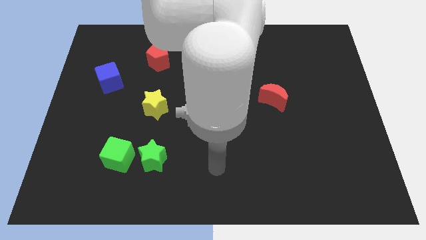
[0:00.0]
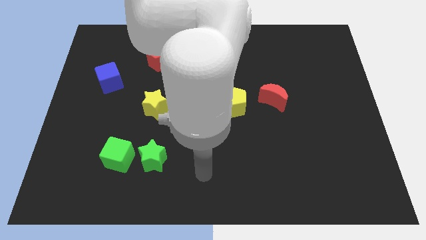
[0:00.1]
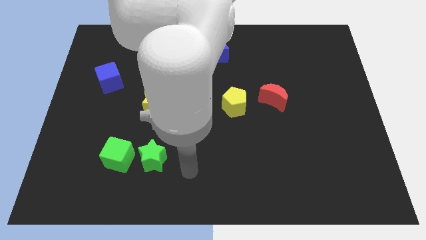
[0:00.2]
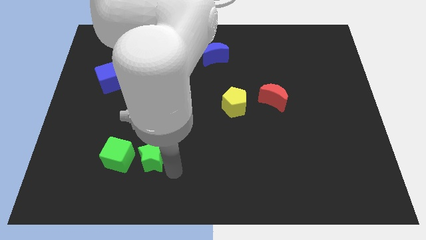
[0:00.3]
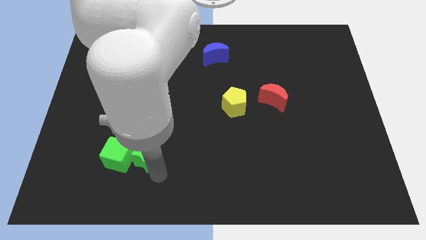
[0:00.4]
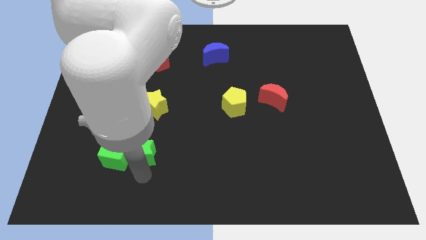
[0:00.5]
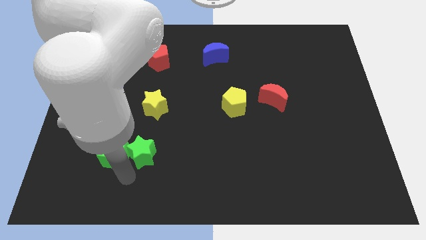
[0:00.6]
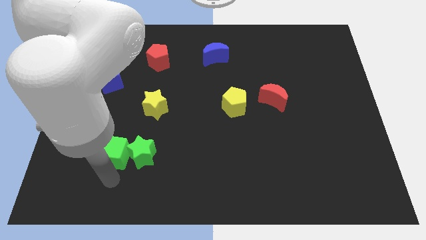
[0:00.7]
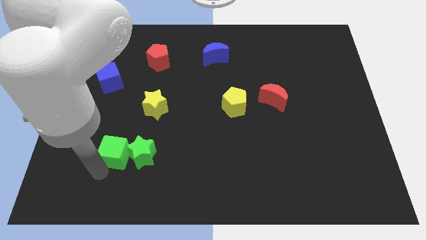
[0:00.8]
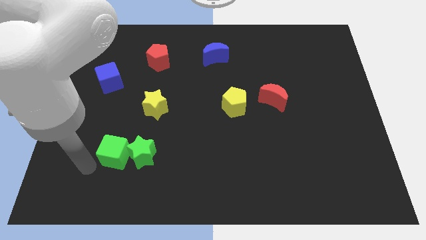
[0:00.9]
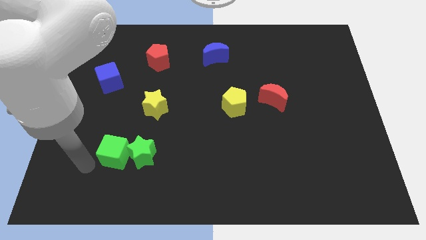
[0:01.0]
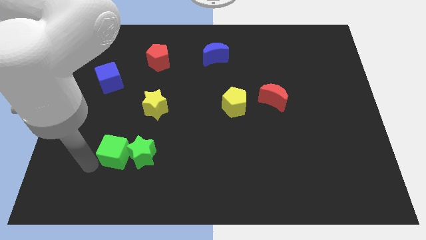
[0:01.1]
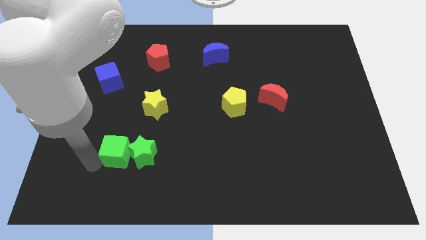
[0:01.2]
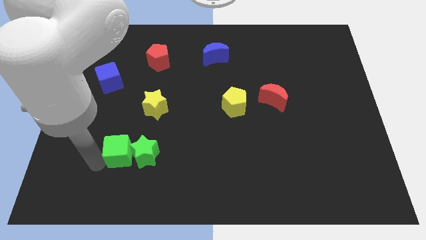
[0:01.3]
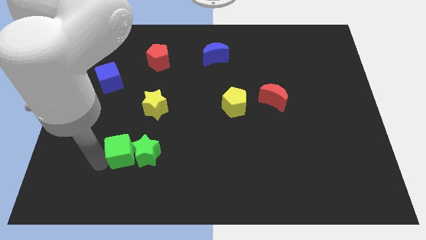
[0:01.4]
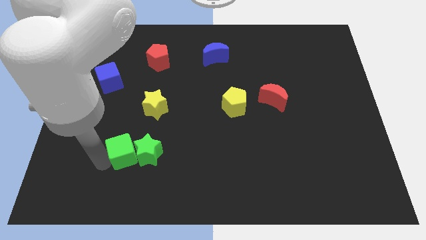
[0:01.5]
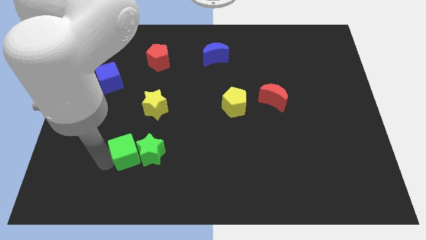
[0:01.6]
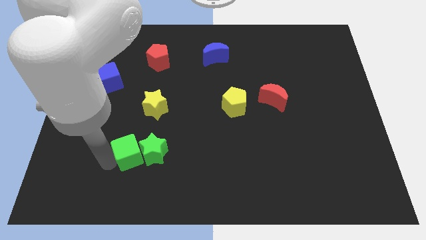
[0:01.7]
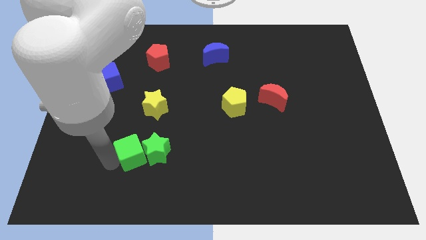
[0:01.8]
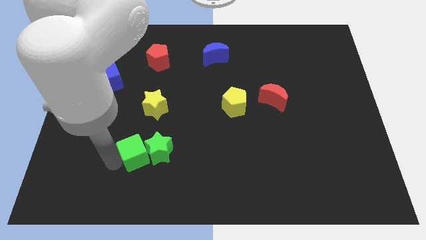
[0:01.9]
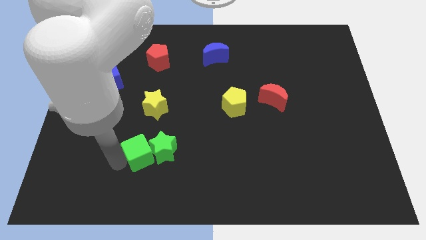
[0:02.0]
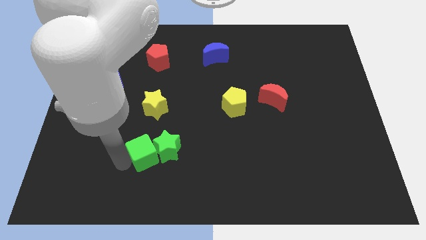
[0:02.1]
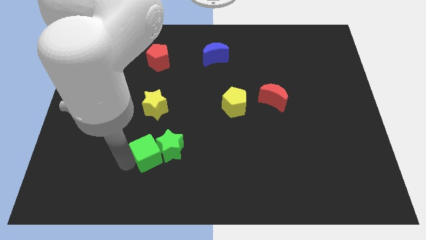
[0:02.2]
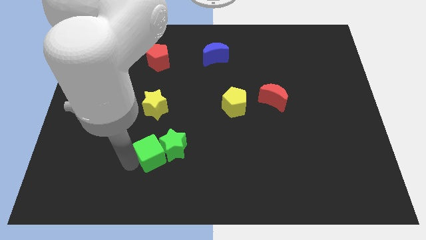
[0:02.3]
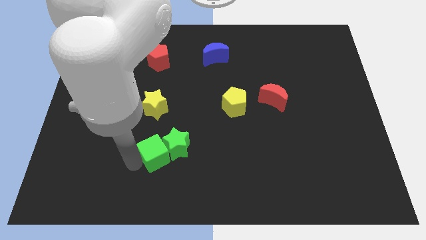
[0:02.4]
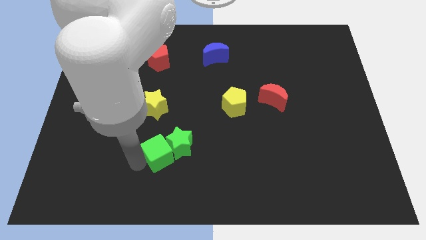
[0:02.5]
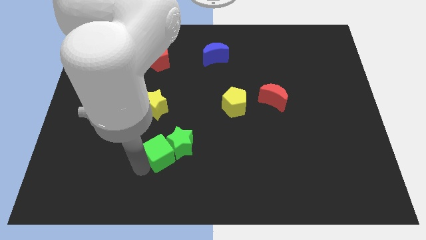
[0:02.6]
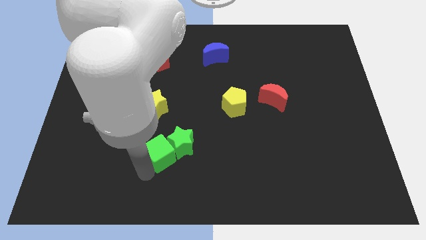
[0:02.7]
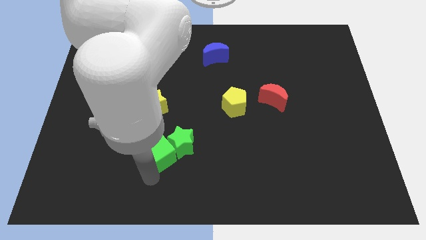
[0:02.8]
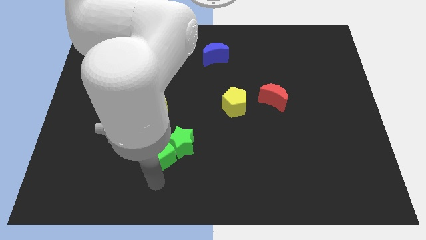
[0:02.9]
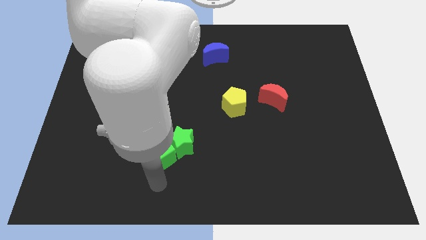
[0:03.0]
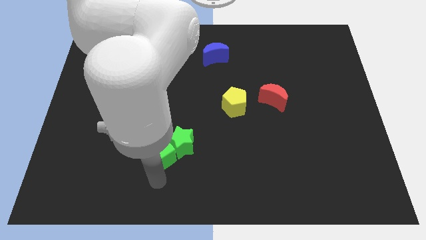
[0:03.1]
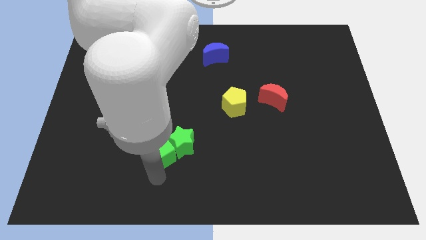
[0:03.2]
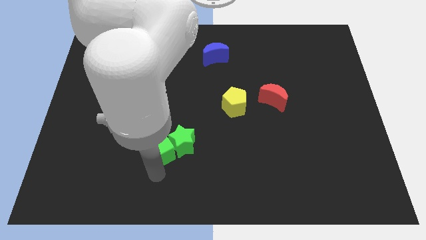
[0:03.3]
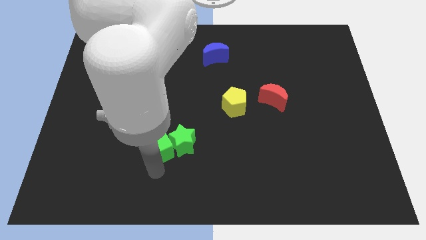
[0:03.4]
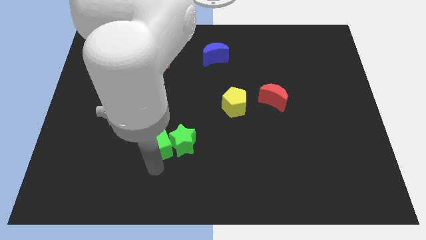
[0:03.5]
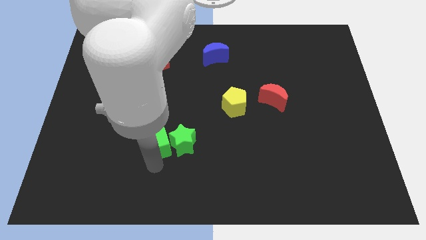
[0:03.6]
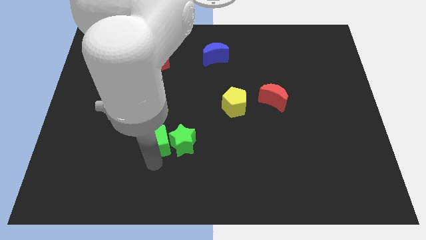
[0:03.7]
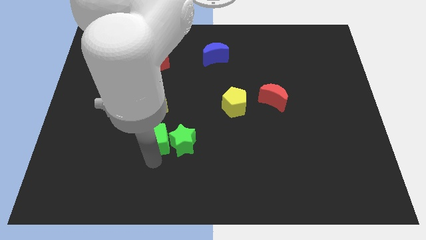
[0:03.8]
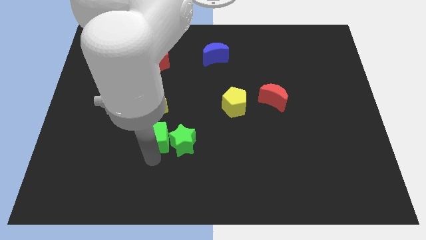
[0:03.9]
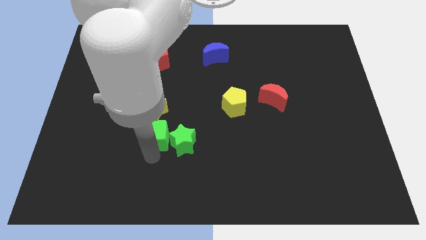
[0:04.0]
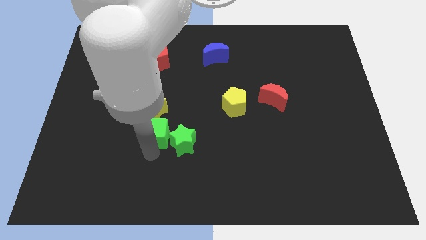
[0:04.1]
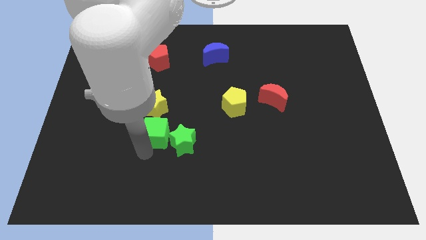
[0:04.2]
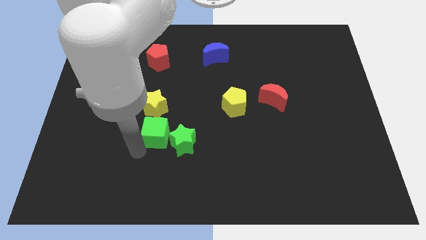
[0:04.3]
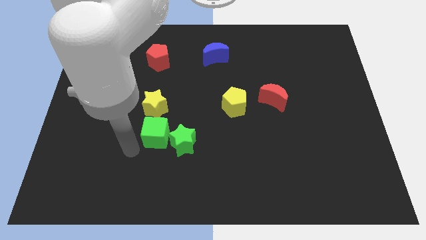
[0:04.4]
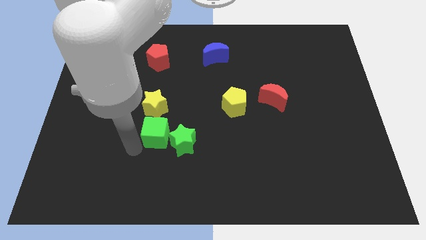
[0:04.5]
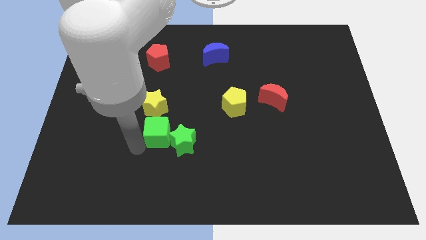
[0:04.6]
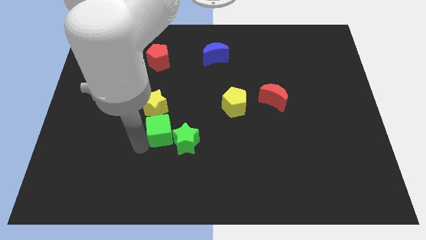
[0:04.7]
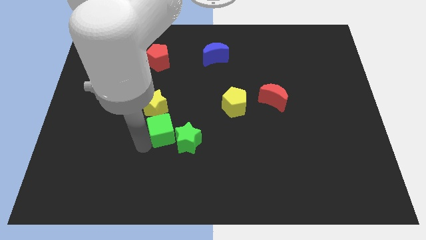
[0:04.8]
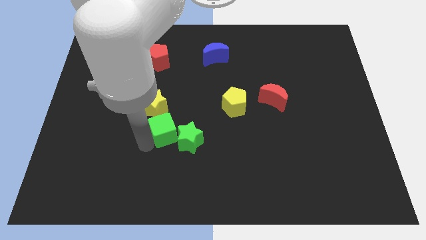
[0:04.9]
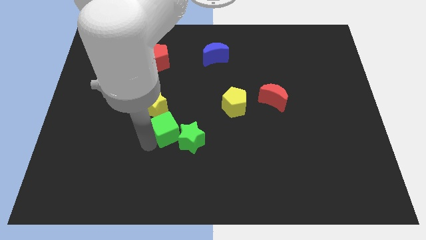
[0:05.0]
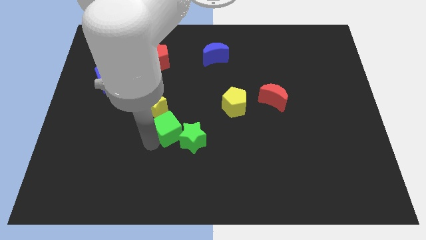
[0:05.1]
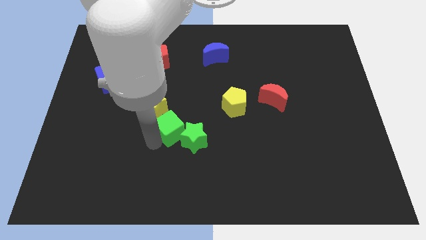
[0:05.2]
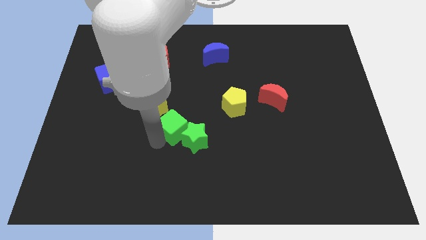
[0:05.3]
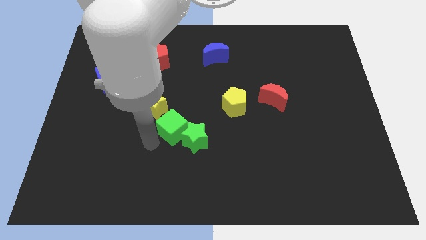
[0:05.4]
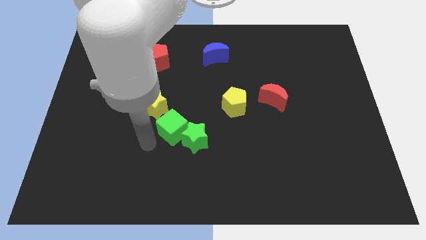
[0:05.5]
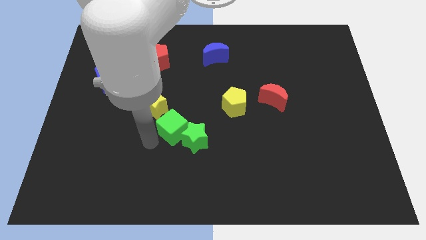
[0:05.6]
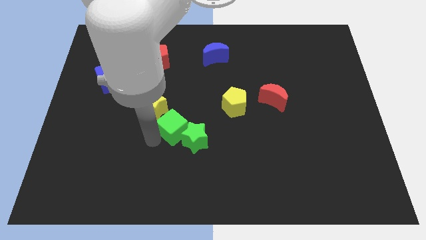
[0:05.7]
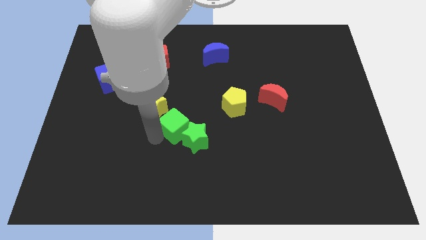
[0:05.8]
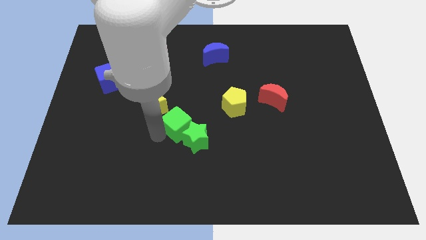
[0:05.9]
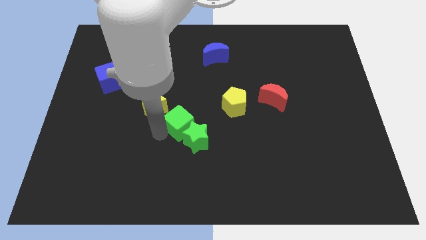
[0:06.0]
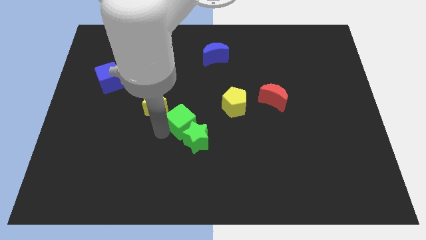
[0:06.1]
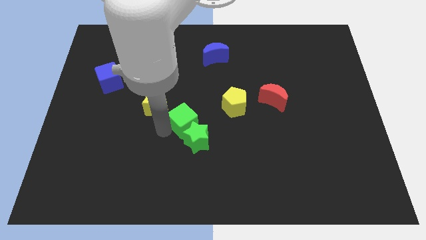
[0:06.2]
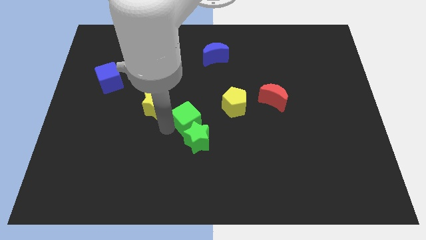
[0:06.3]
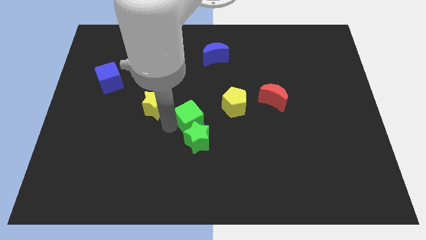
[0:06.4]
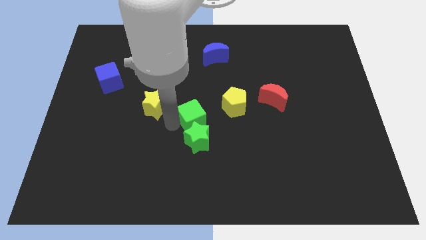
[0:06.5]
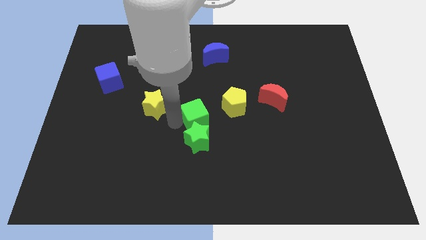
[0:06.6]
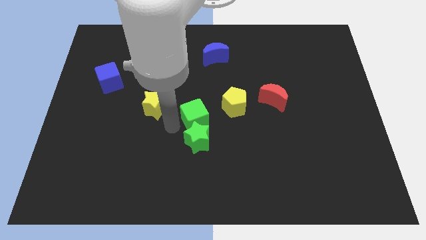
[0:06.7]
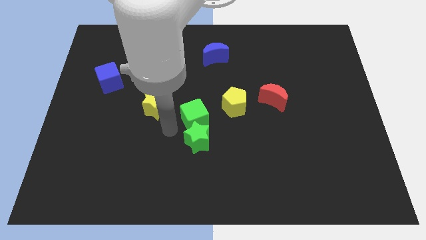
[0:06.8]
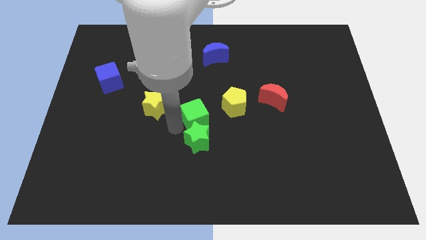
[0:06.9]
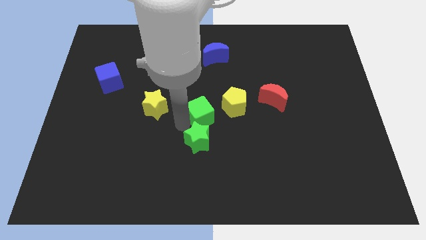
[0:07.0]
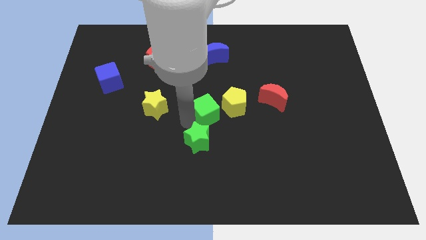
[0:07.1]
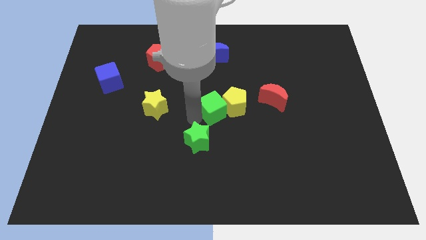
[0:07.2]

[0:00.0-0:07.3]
put the green cube close to the yellow pentagon

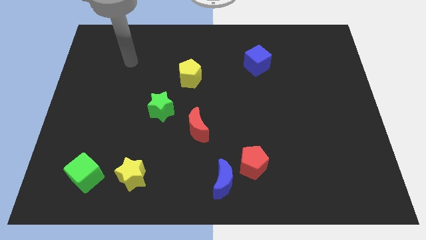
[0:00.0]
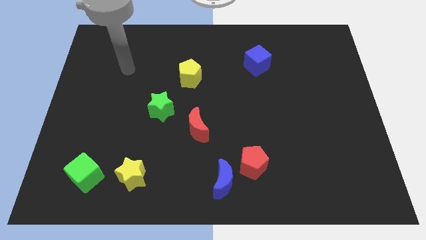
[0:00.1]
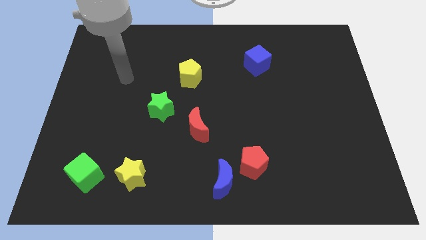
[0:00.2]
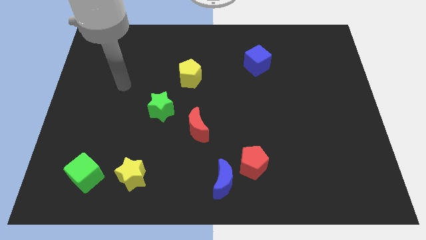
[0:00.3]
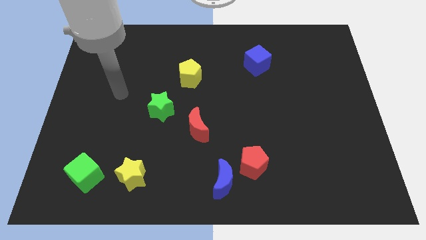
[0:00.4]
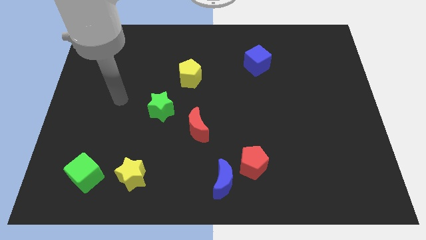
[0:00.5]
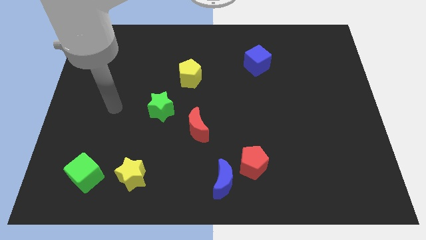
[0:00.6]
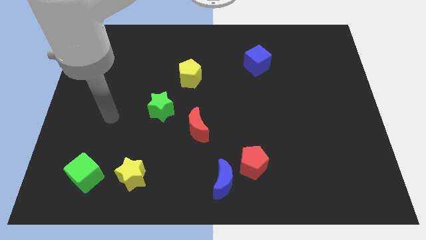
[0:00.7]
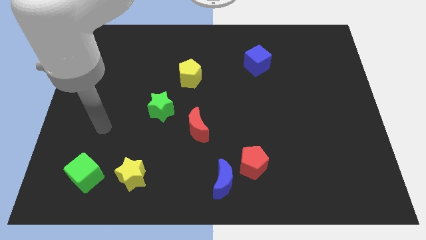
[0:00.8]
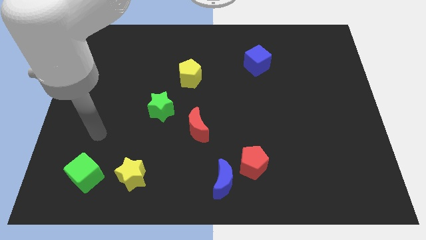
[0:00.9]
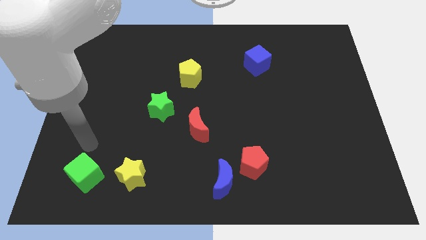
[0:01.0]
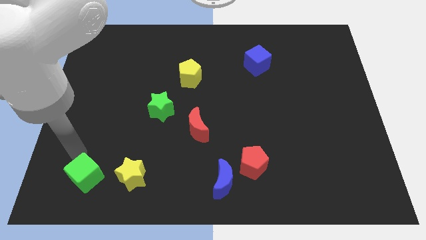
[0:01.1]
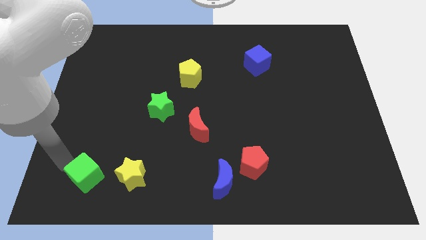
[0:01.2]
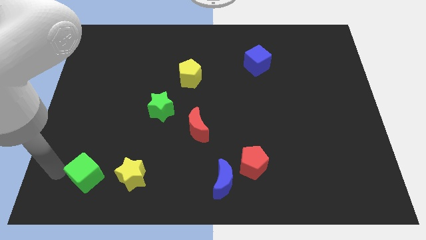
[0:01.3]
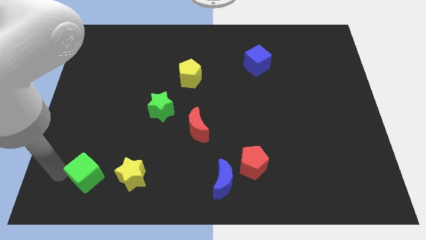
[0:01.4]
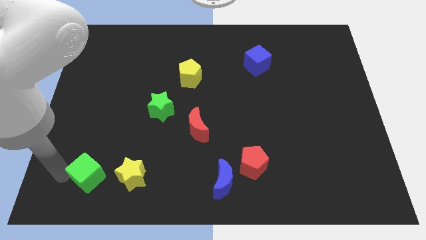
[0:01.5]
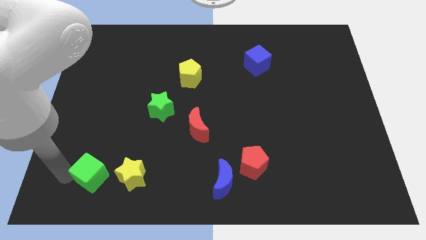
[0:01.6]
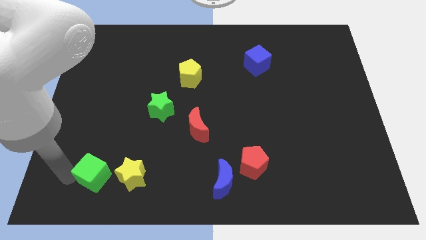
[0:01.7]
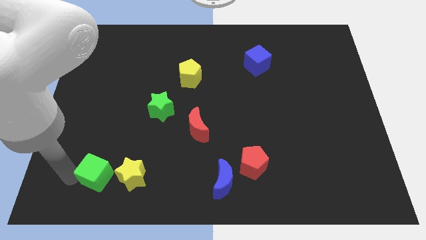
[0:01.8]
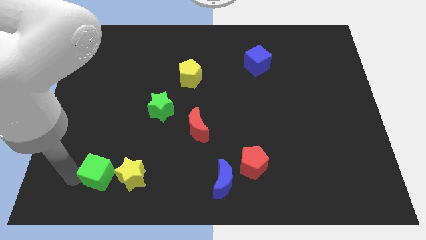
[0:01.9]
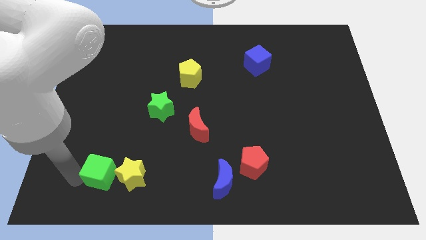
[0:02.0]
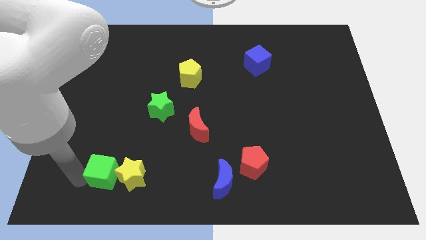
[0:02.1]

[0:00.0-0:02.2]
move the green cube next to the yellow star
